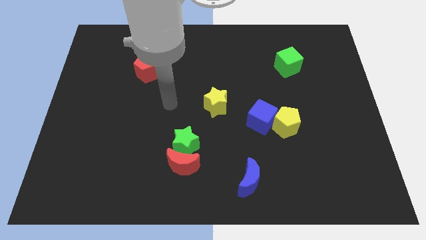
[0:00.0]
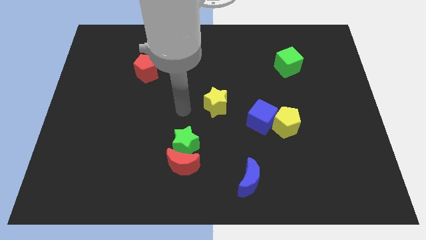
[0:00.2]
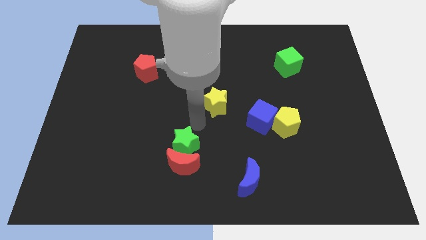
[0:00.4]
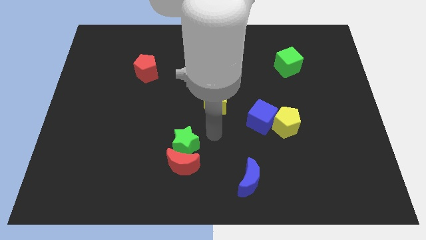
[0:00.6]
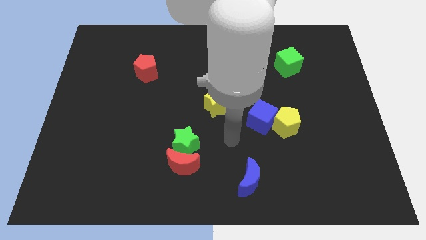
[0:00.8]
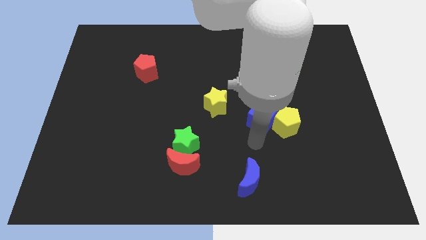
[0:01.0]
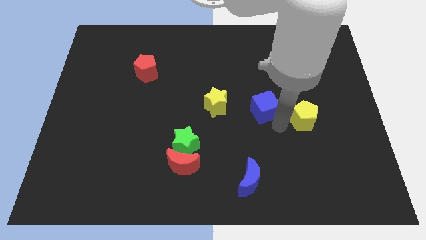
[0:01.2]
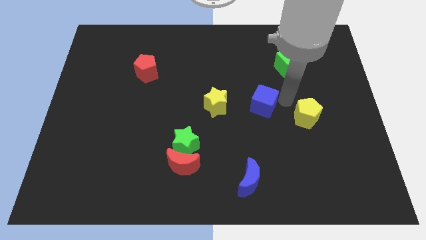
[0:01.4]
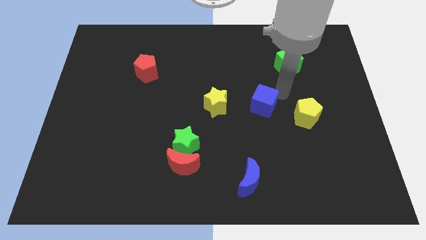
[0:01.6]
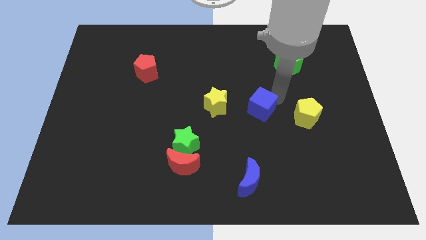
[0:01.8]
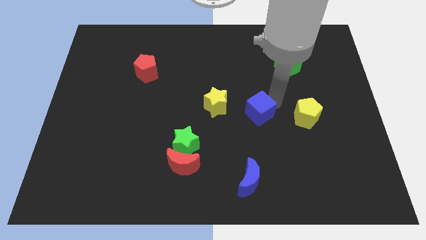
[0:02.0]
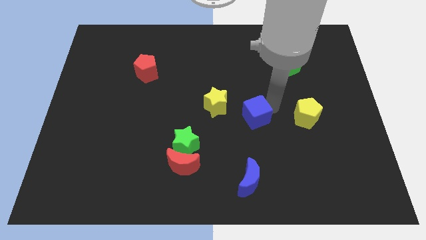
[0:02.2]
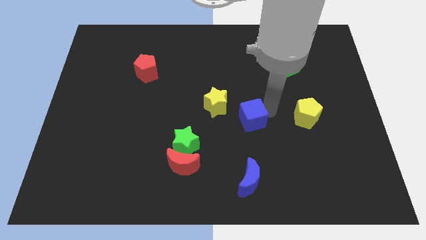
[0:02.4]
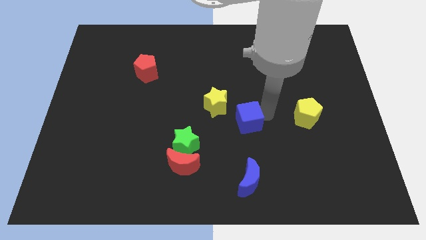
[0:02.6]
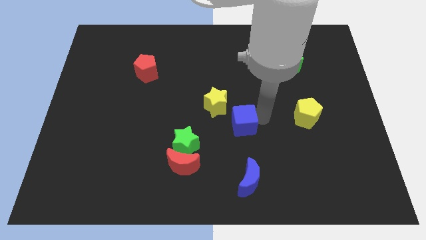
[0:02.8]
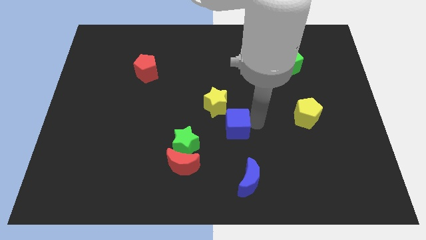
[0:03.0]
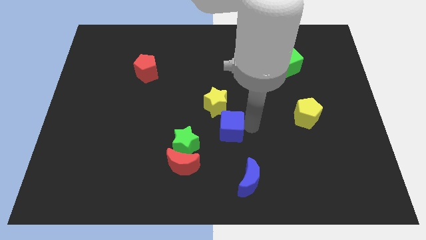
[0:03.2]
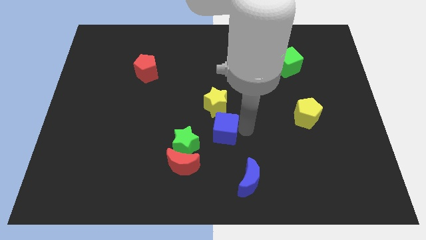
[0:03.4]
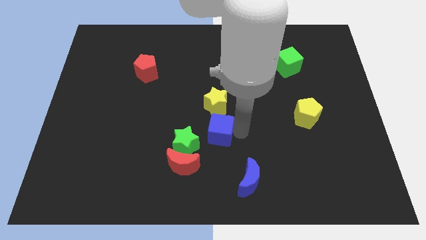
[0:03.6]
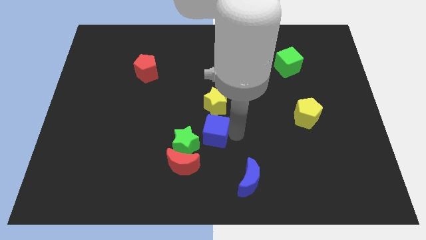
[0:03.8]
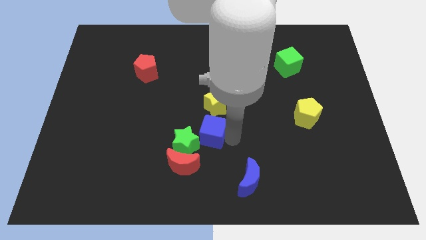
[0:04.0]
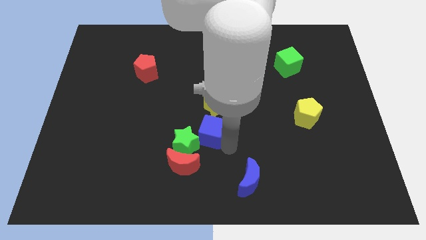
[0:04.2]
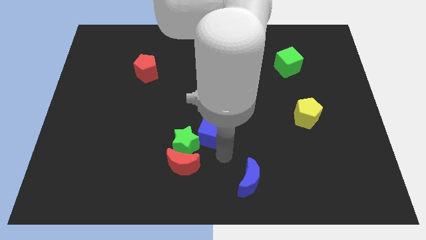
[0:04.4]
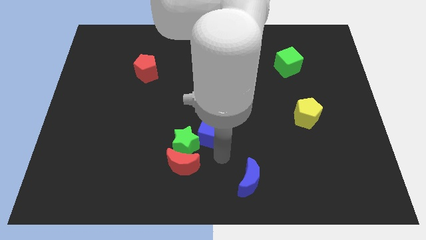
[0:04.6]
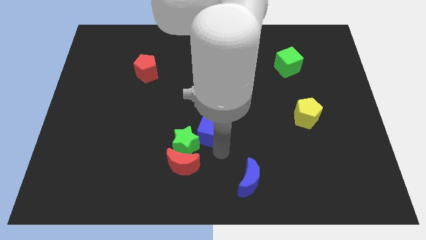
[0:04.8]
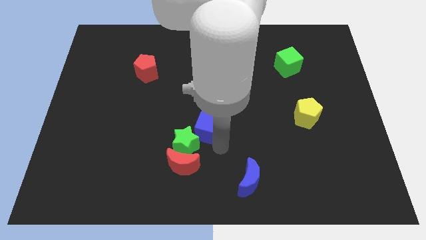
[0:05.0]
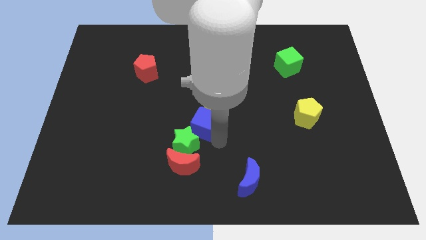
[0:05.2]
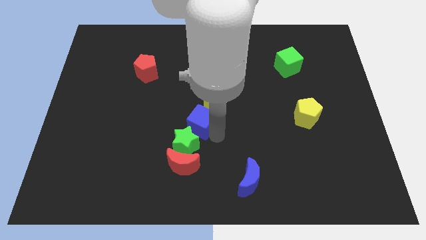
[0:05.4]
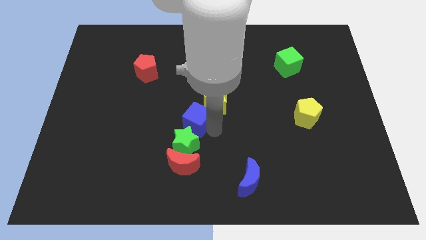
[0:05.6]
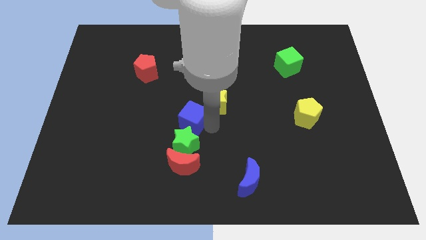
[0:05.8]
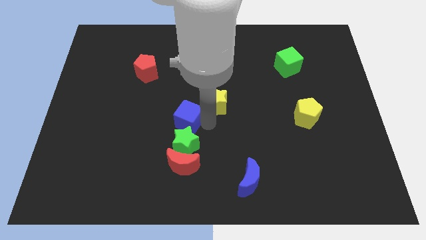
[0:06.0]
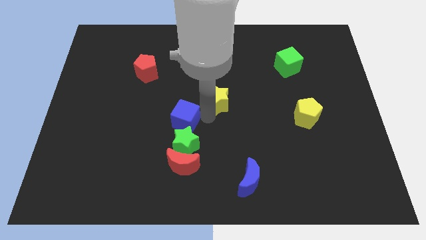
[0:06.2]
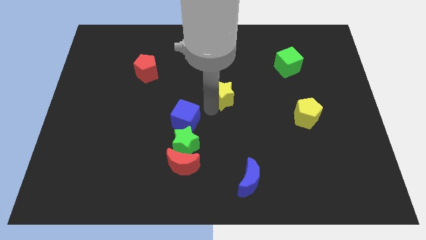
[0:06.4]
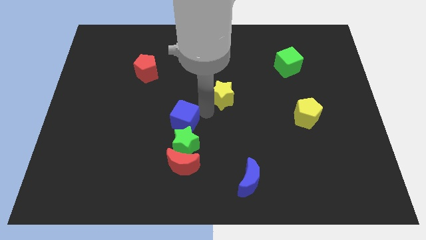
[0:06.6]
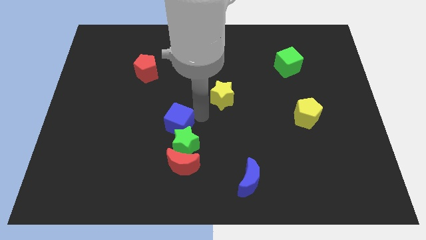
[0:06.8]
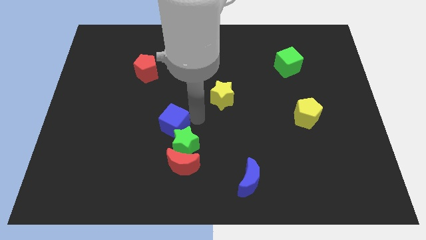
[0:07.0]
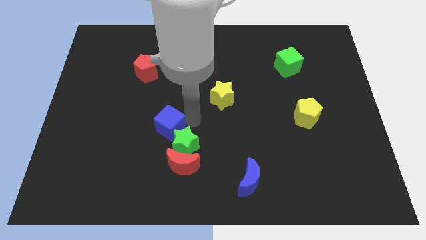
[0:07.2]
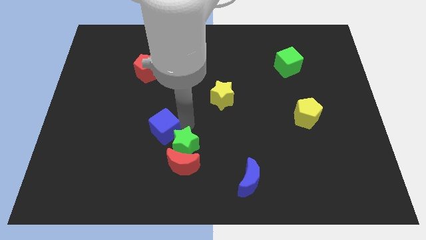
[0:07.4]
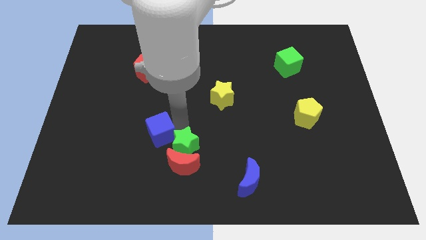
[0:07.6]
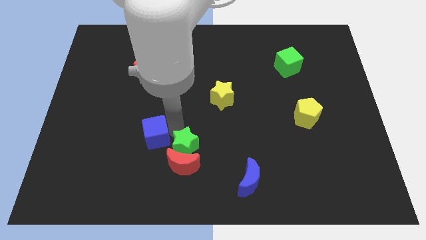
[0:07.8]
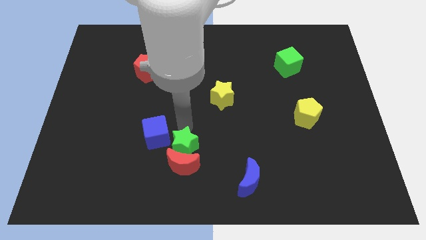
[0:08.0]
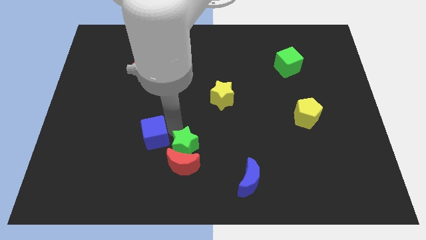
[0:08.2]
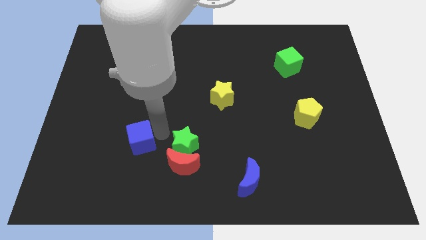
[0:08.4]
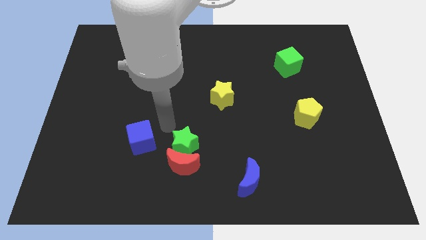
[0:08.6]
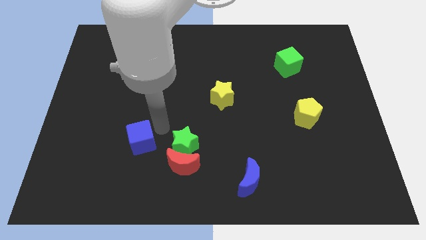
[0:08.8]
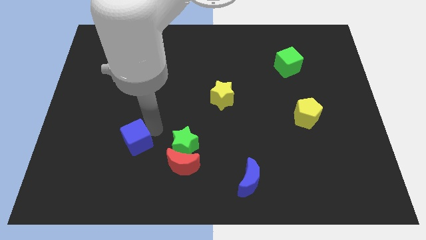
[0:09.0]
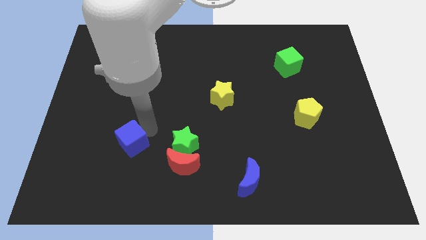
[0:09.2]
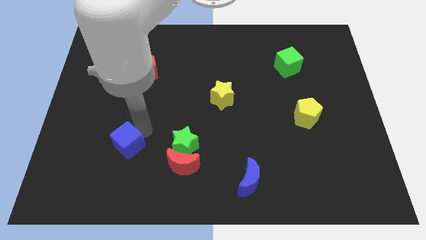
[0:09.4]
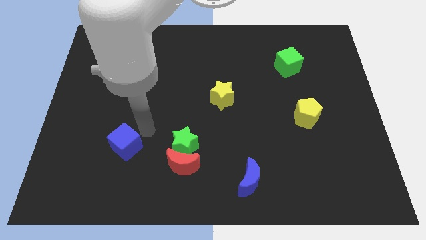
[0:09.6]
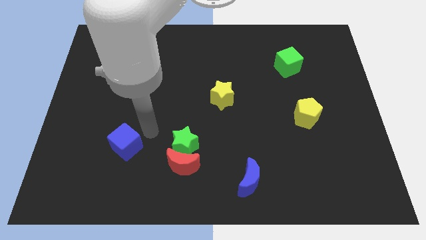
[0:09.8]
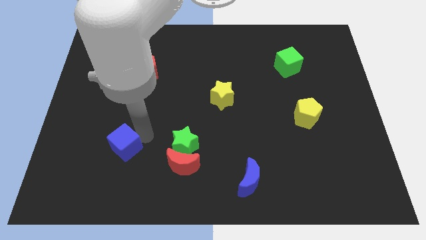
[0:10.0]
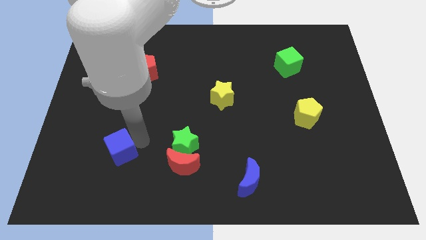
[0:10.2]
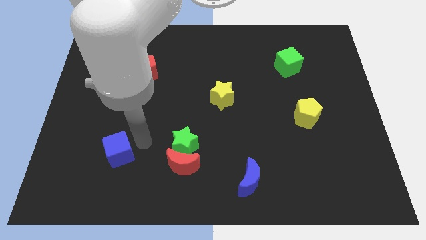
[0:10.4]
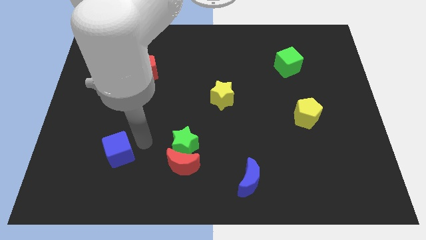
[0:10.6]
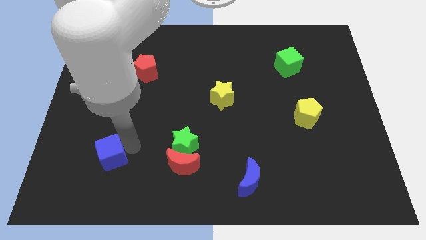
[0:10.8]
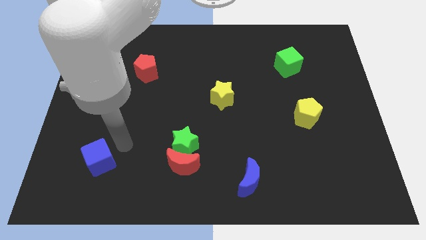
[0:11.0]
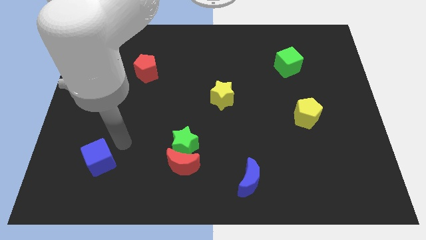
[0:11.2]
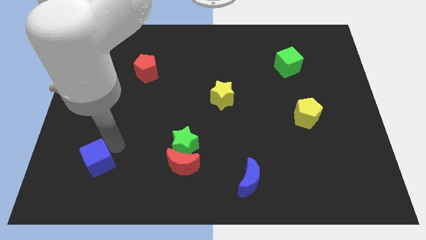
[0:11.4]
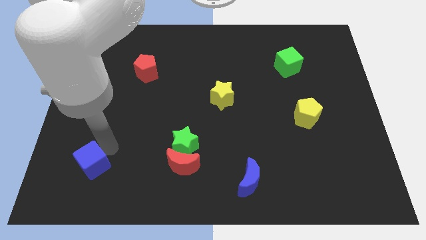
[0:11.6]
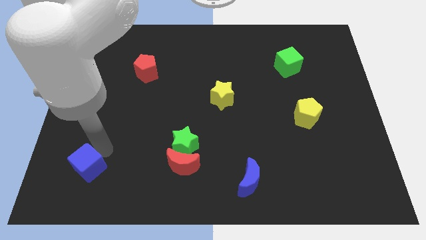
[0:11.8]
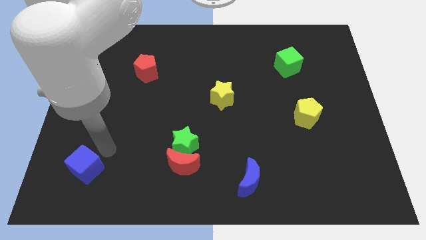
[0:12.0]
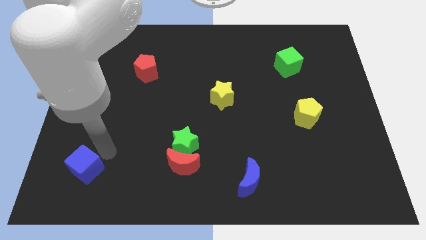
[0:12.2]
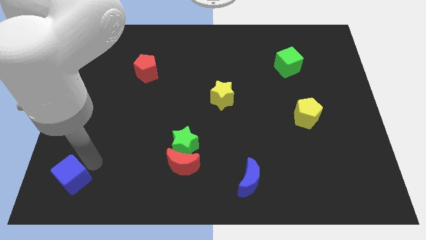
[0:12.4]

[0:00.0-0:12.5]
put the blue cube to the bottom left corner

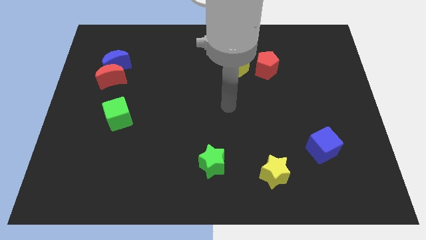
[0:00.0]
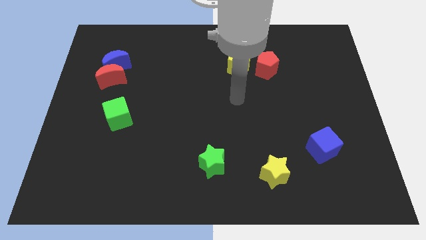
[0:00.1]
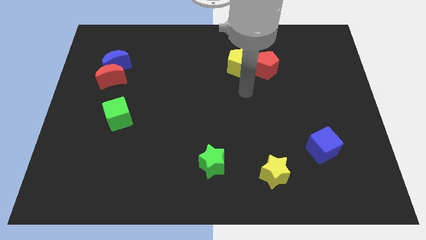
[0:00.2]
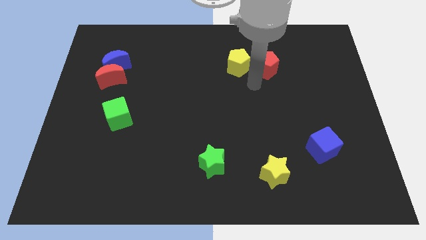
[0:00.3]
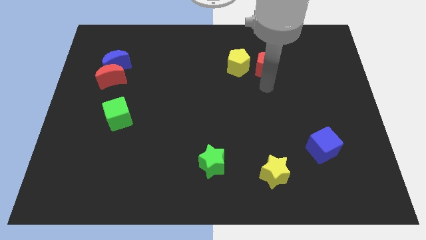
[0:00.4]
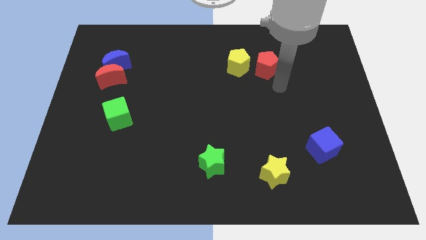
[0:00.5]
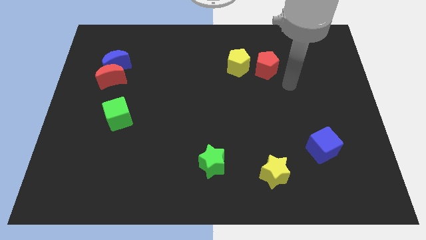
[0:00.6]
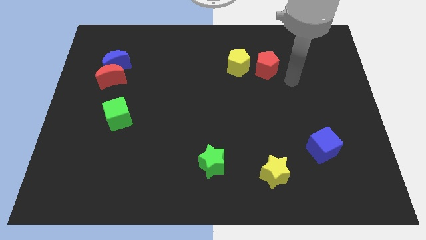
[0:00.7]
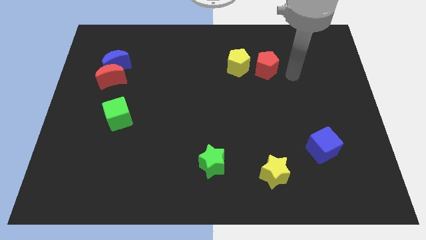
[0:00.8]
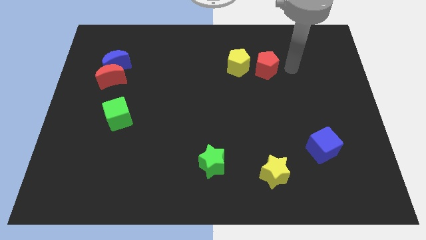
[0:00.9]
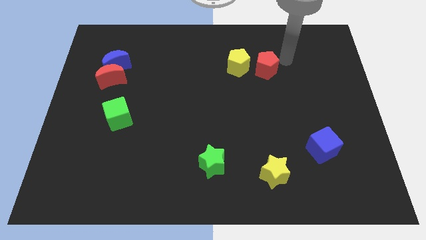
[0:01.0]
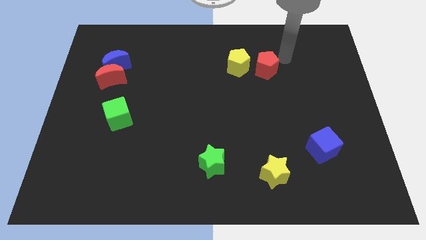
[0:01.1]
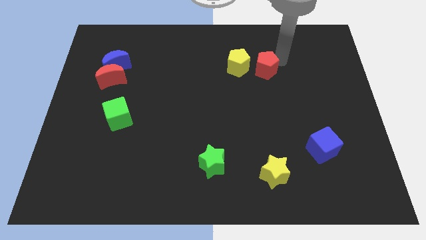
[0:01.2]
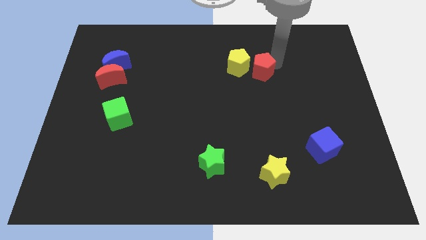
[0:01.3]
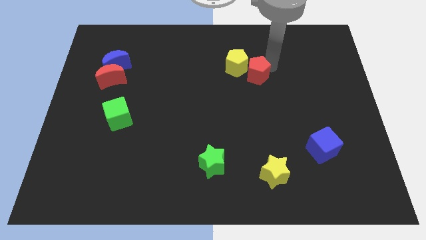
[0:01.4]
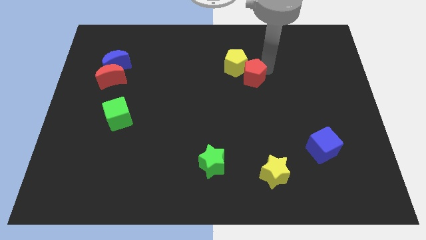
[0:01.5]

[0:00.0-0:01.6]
slide the red pentagon to the center of the board
